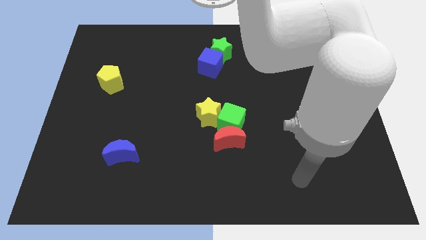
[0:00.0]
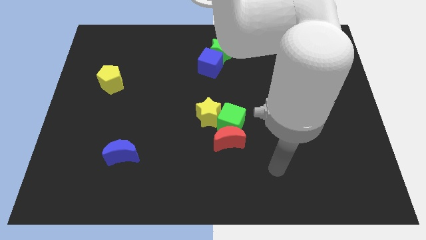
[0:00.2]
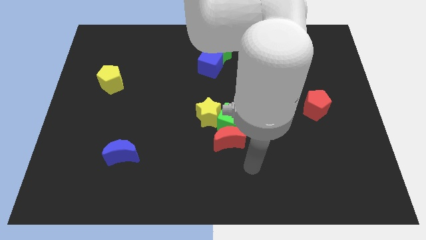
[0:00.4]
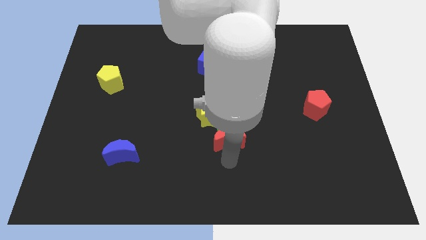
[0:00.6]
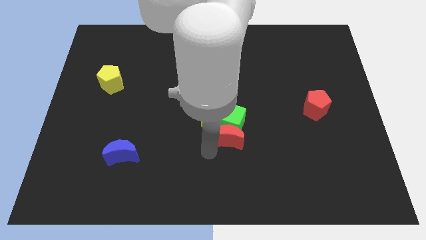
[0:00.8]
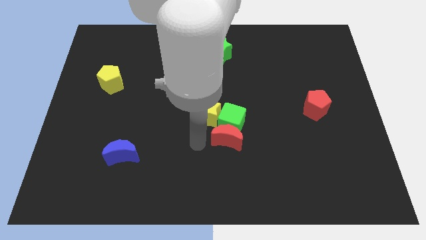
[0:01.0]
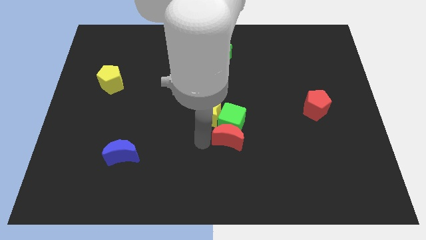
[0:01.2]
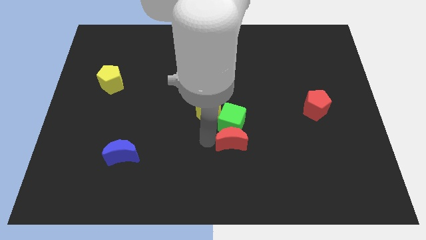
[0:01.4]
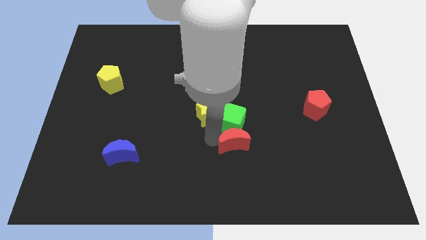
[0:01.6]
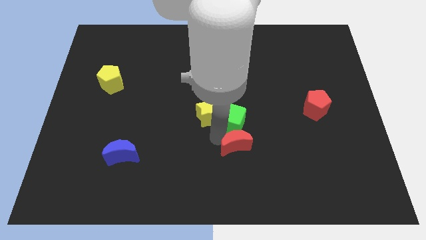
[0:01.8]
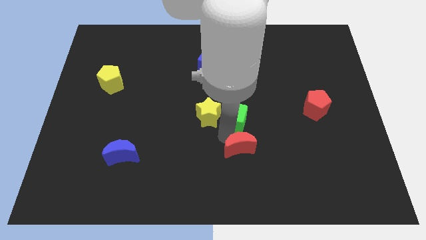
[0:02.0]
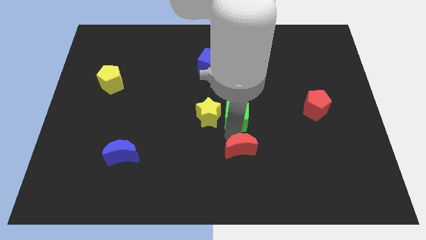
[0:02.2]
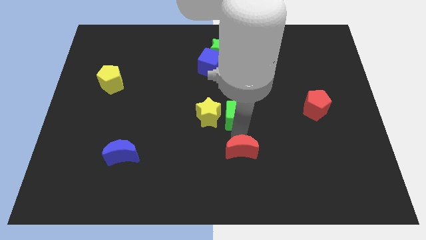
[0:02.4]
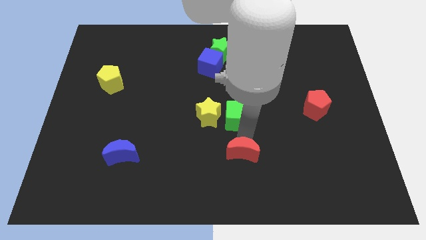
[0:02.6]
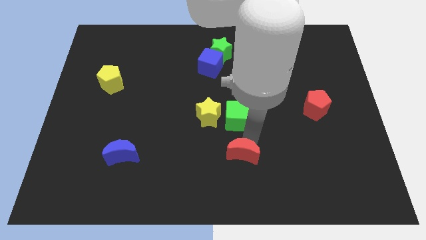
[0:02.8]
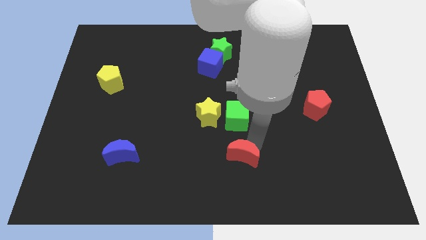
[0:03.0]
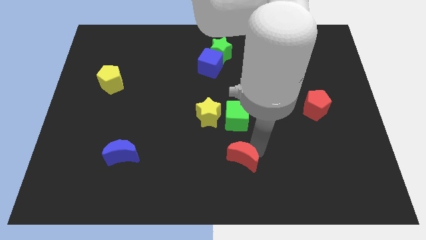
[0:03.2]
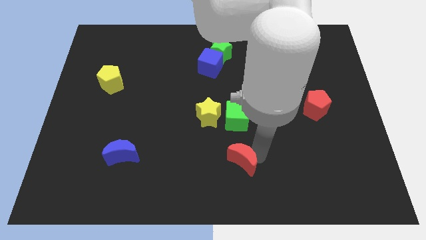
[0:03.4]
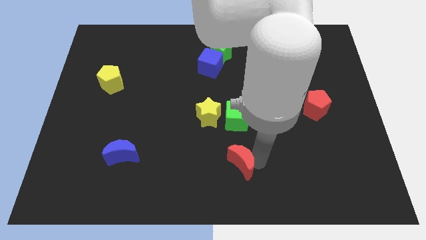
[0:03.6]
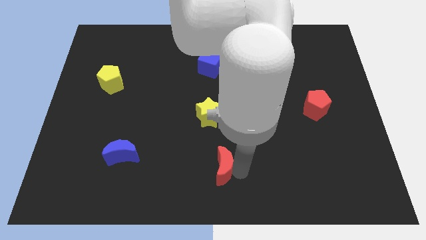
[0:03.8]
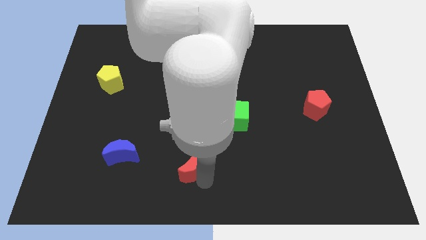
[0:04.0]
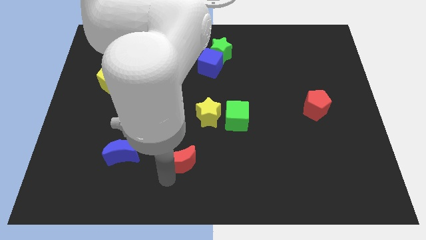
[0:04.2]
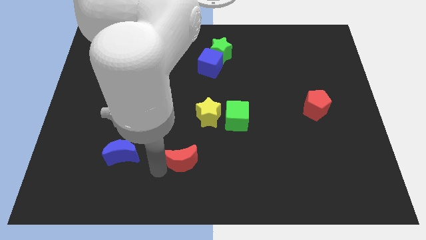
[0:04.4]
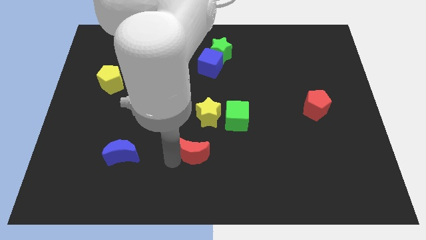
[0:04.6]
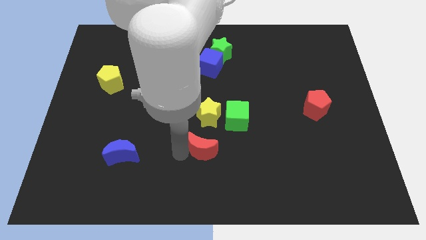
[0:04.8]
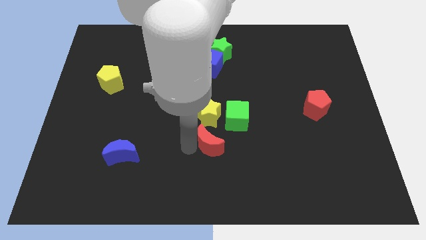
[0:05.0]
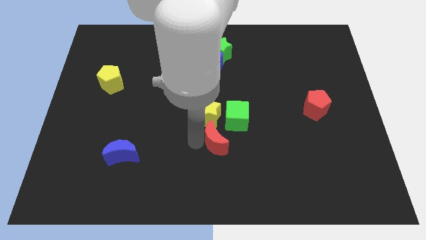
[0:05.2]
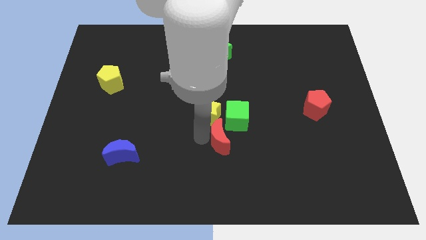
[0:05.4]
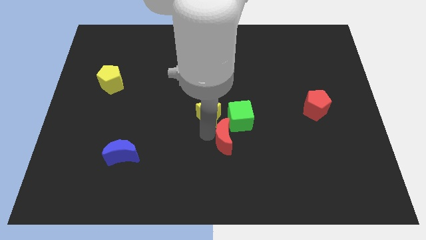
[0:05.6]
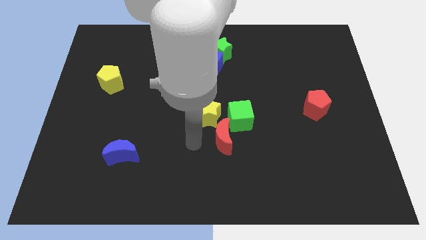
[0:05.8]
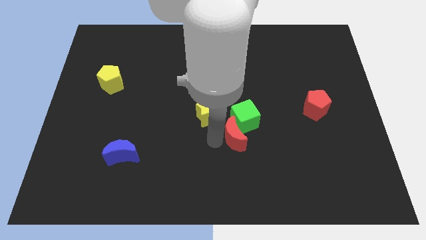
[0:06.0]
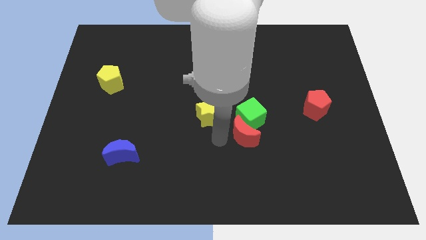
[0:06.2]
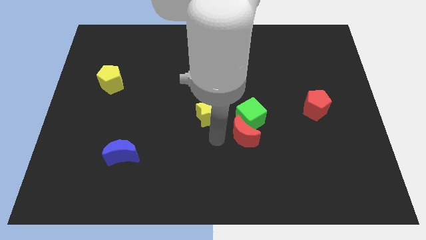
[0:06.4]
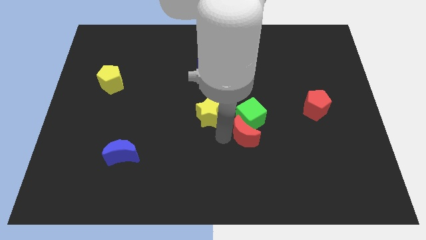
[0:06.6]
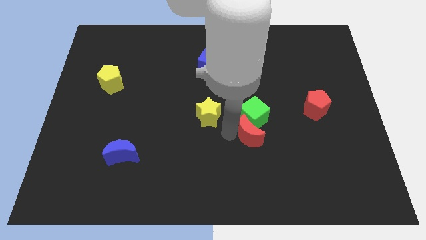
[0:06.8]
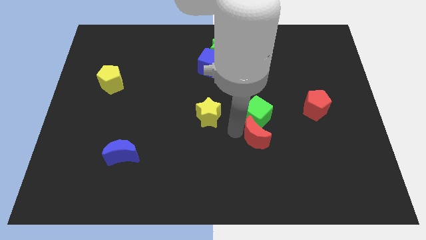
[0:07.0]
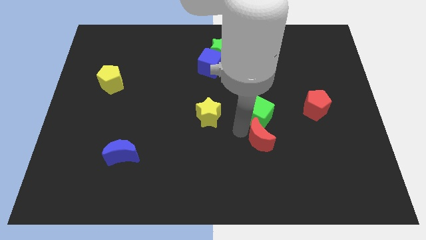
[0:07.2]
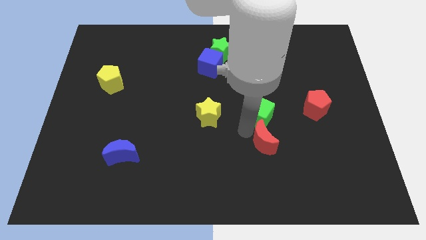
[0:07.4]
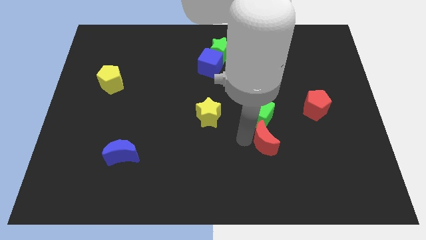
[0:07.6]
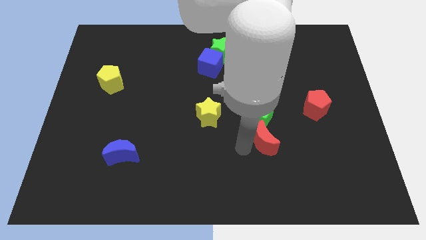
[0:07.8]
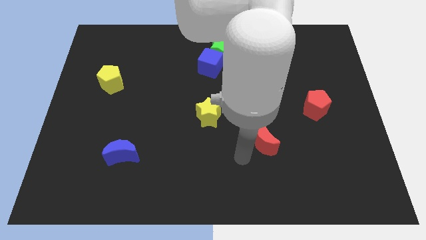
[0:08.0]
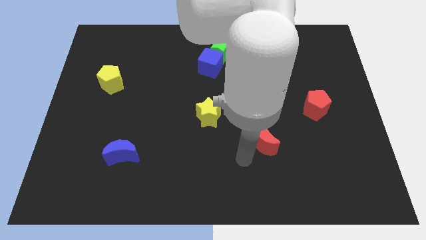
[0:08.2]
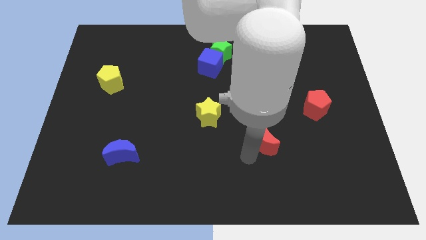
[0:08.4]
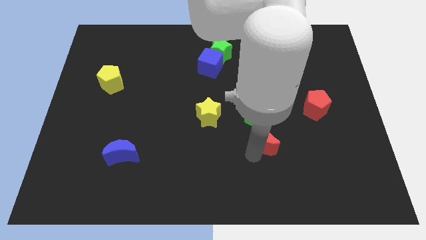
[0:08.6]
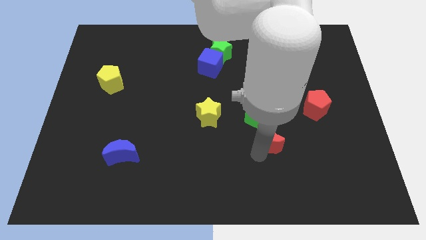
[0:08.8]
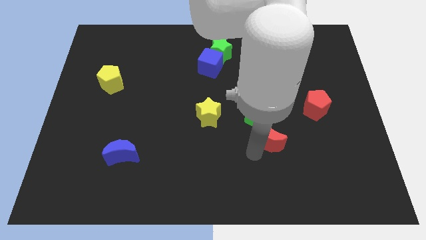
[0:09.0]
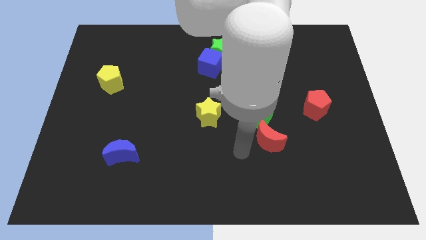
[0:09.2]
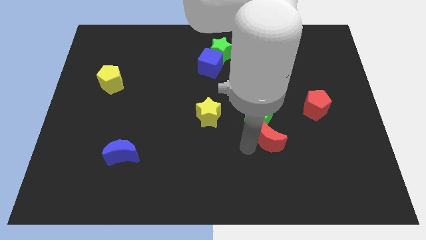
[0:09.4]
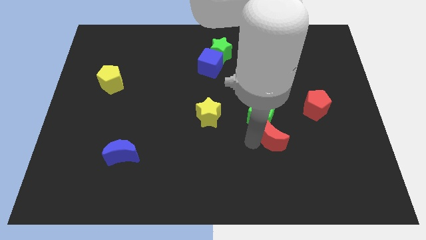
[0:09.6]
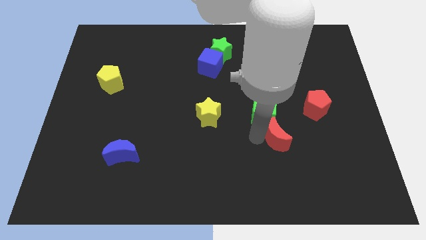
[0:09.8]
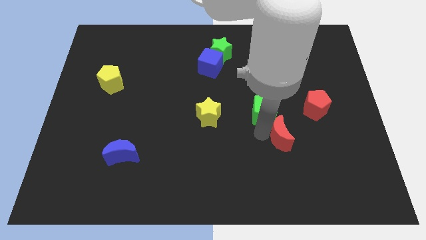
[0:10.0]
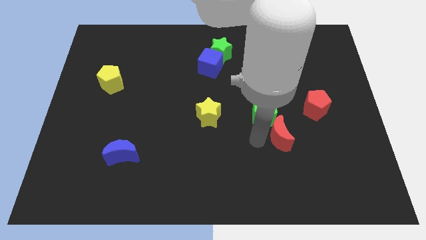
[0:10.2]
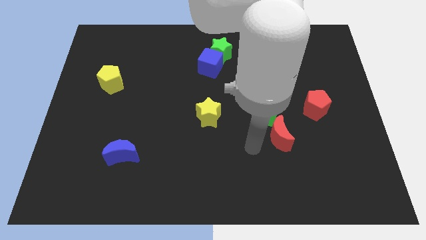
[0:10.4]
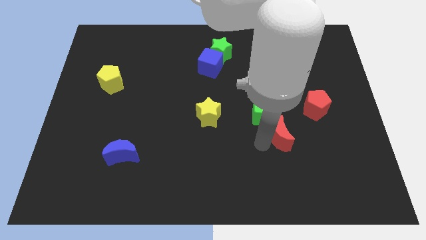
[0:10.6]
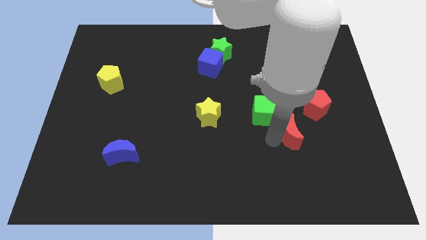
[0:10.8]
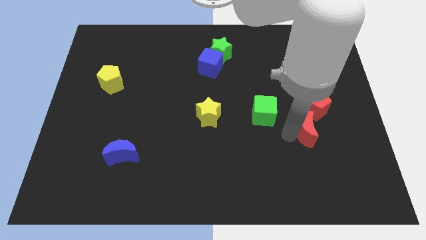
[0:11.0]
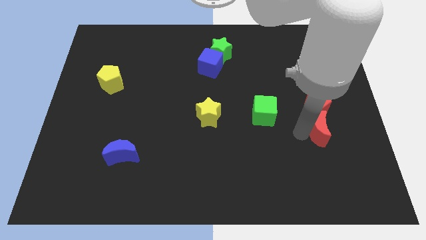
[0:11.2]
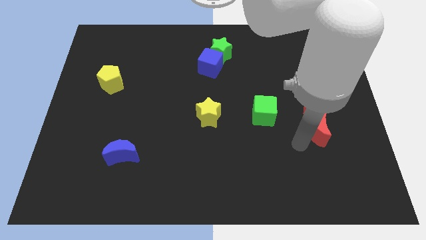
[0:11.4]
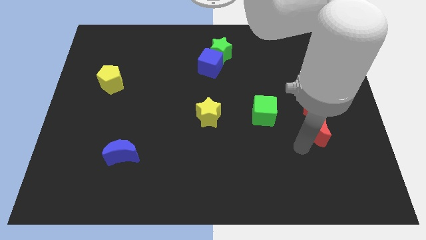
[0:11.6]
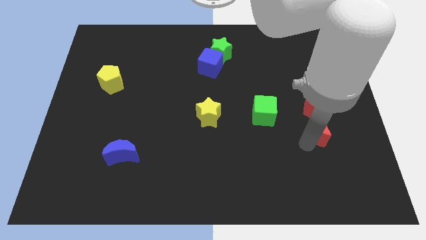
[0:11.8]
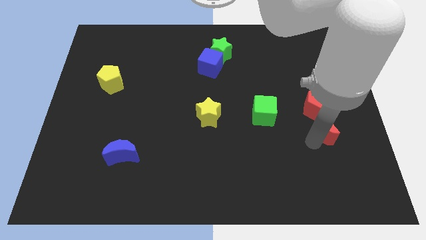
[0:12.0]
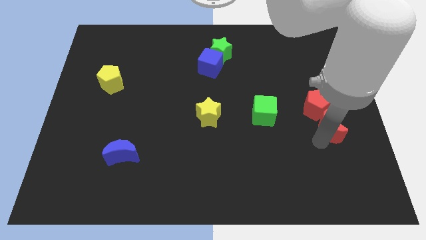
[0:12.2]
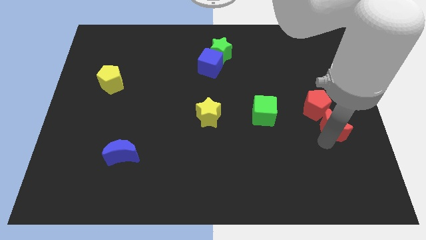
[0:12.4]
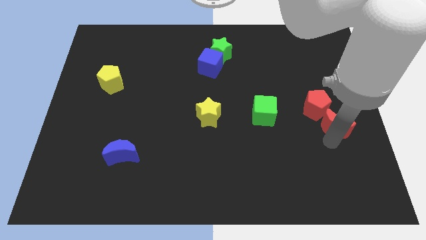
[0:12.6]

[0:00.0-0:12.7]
move the red moon to the center right

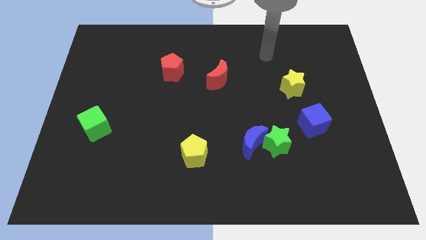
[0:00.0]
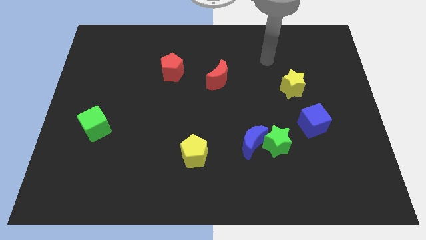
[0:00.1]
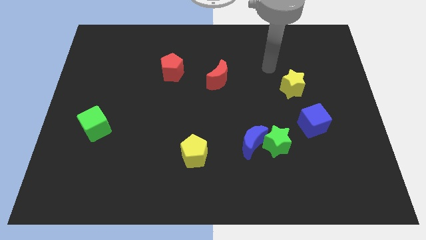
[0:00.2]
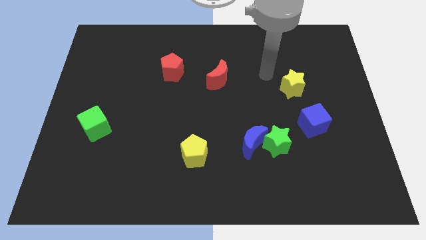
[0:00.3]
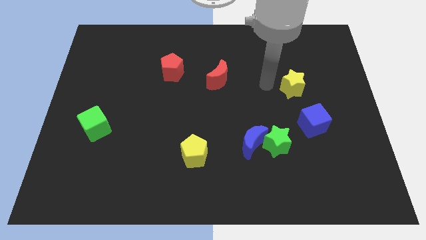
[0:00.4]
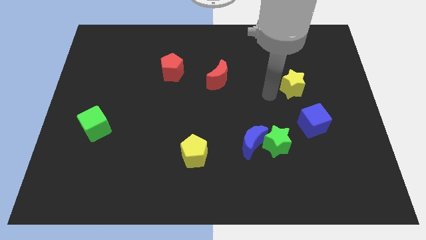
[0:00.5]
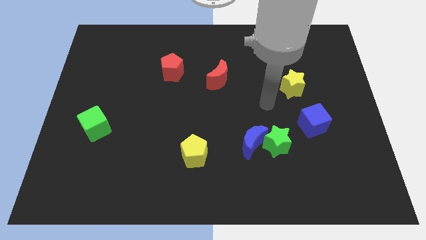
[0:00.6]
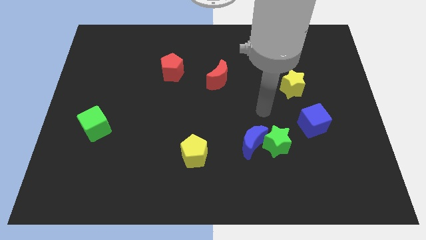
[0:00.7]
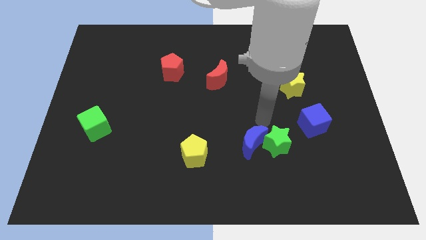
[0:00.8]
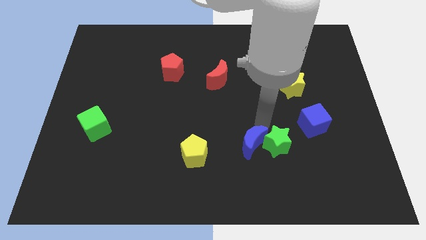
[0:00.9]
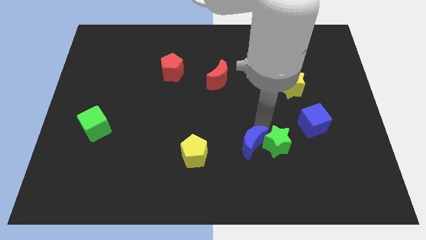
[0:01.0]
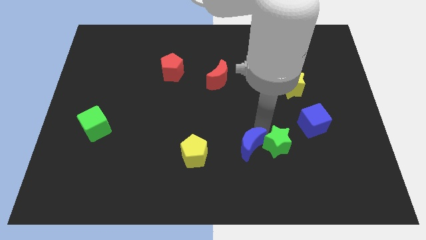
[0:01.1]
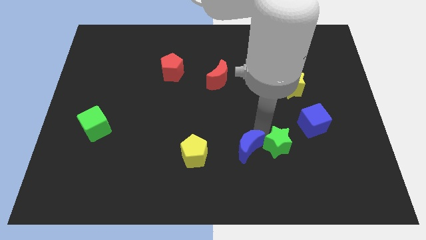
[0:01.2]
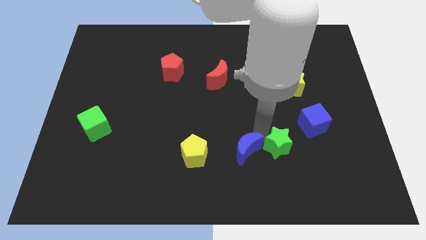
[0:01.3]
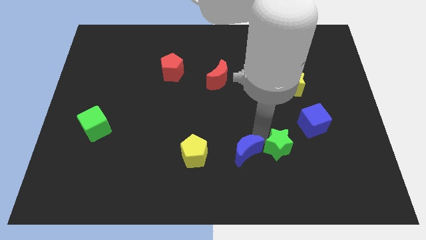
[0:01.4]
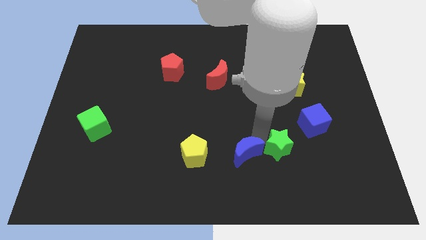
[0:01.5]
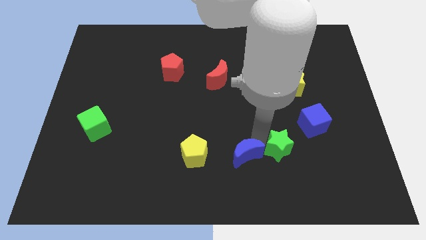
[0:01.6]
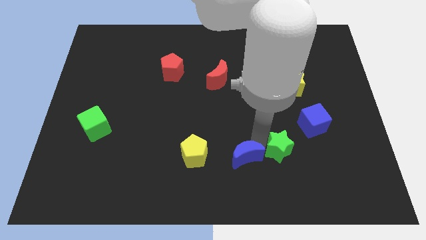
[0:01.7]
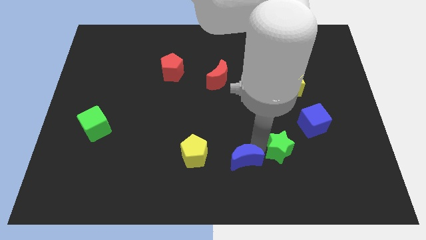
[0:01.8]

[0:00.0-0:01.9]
slide the blue moon to the bottom side
